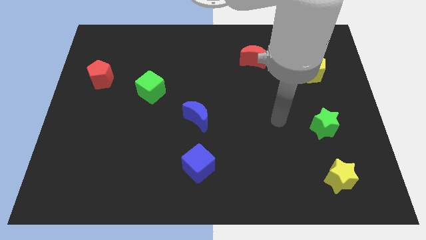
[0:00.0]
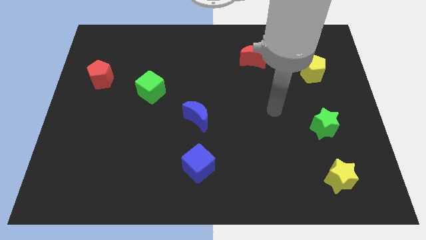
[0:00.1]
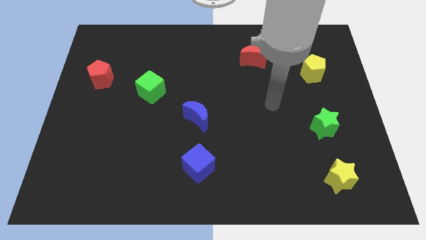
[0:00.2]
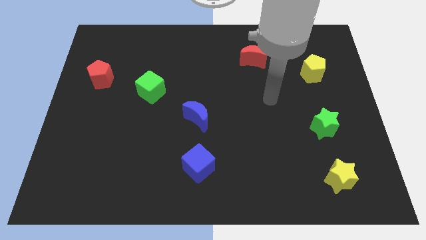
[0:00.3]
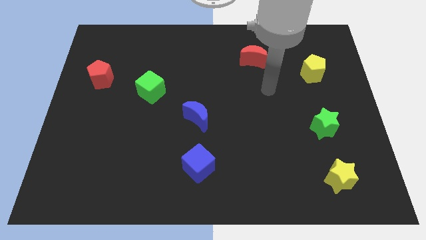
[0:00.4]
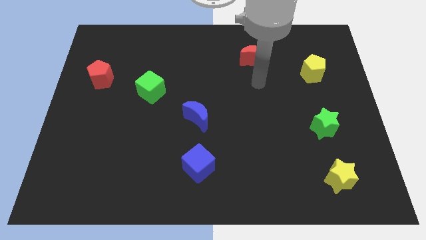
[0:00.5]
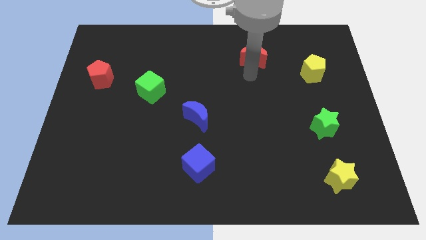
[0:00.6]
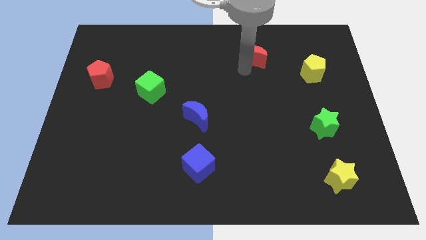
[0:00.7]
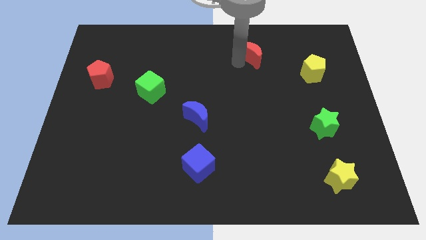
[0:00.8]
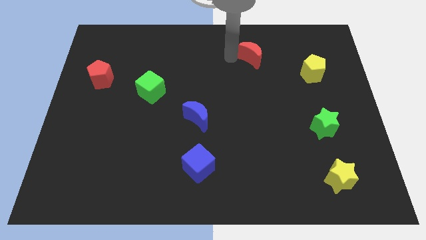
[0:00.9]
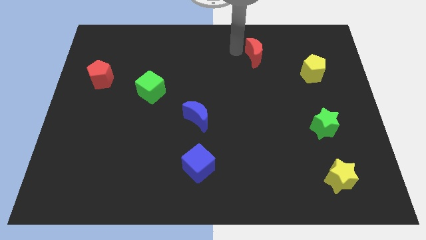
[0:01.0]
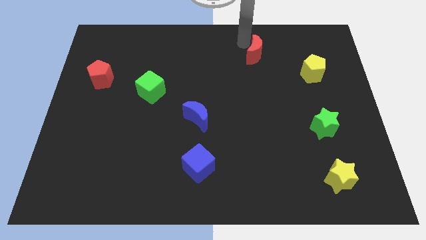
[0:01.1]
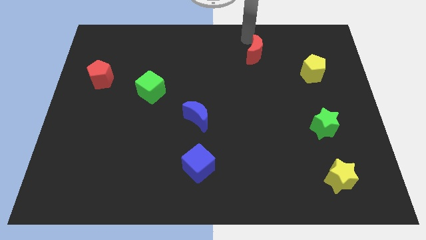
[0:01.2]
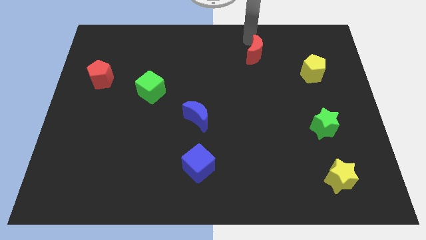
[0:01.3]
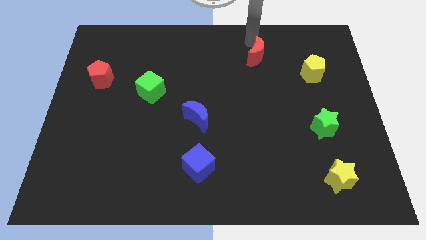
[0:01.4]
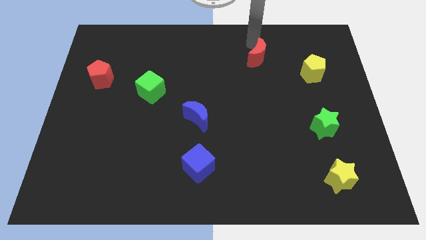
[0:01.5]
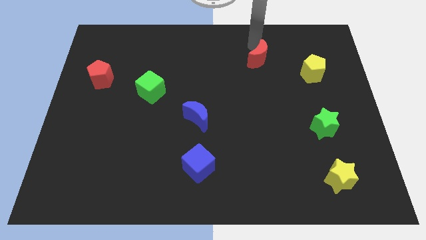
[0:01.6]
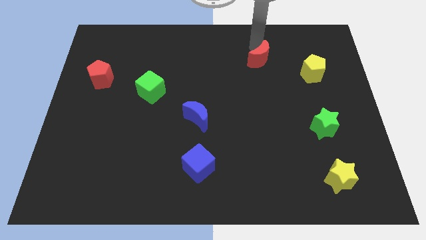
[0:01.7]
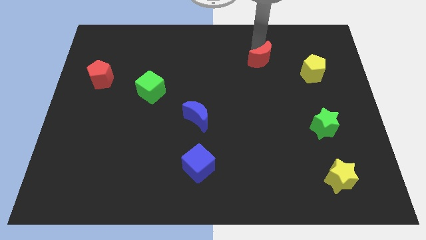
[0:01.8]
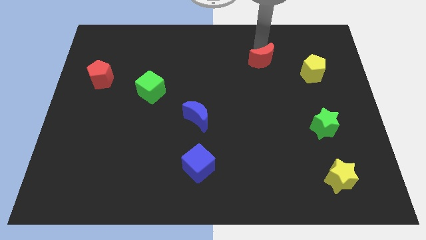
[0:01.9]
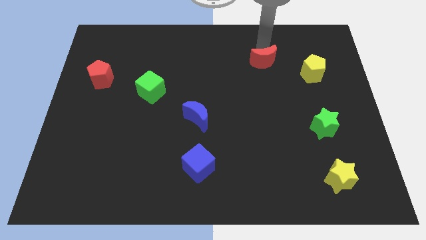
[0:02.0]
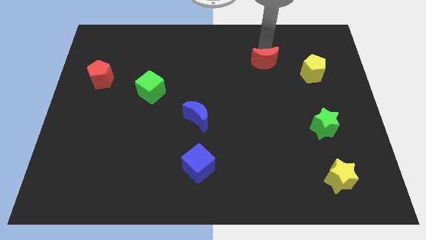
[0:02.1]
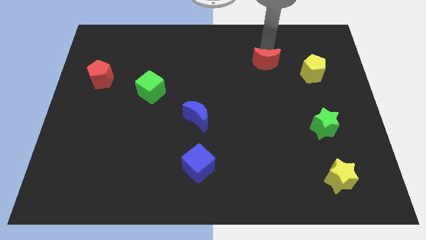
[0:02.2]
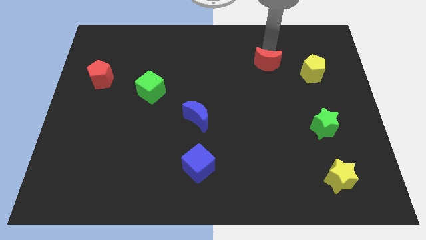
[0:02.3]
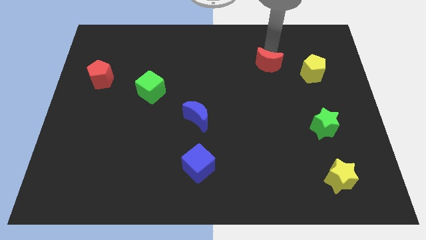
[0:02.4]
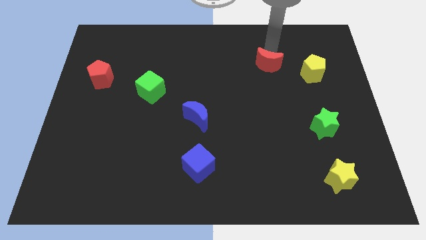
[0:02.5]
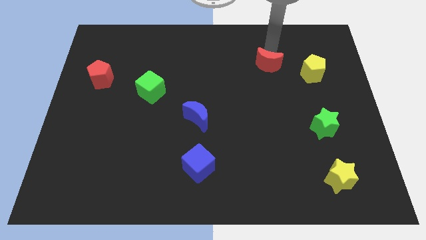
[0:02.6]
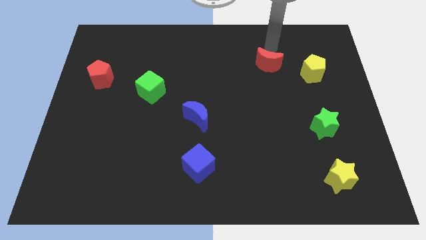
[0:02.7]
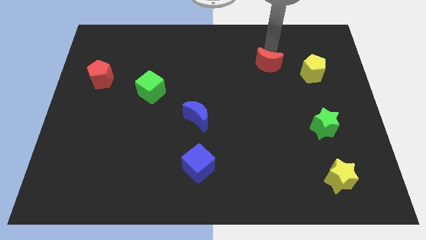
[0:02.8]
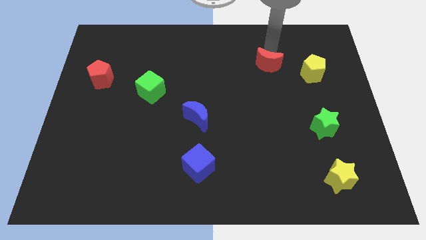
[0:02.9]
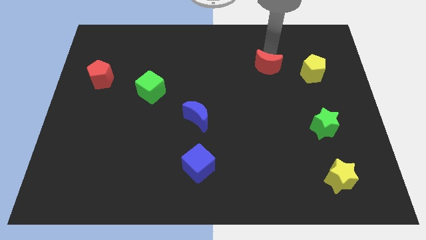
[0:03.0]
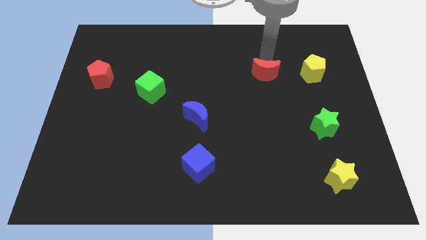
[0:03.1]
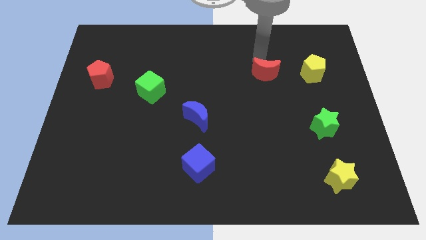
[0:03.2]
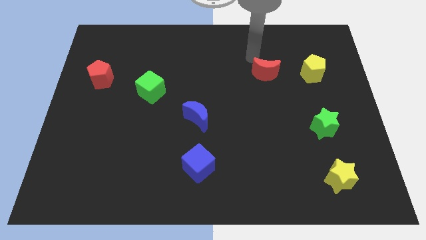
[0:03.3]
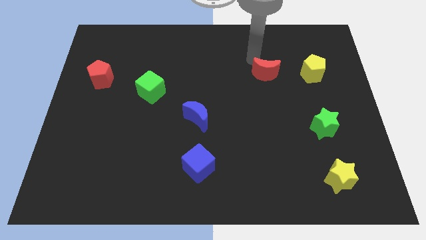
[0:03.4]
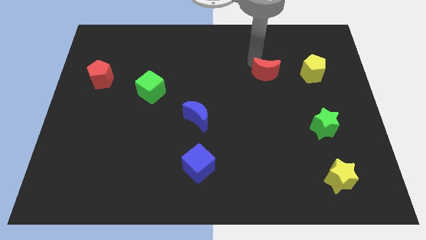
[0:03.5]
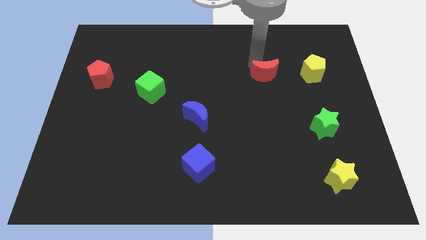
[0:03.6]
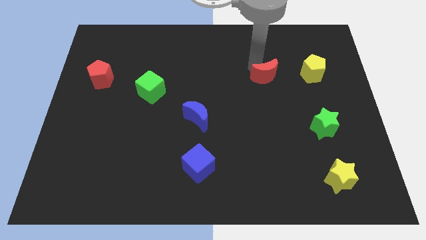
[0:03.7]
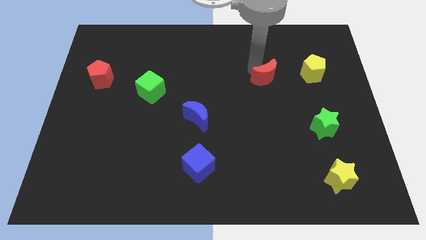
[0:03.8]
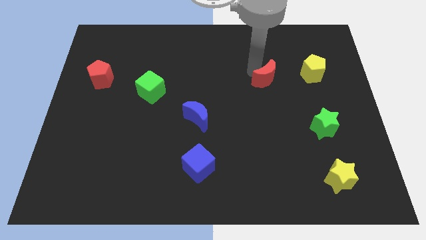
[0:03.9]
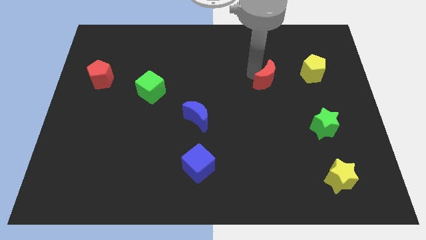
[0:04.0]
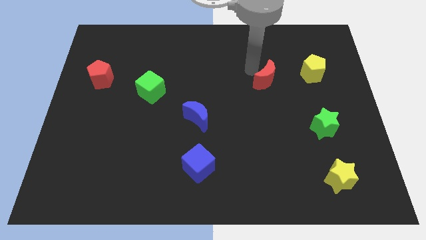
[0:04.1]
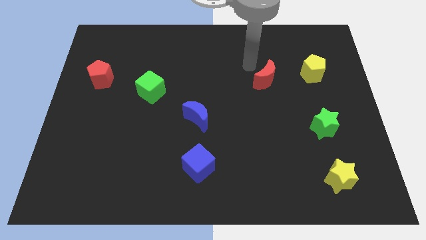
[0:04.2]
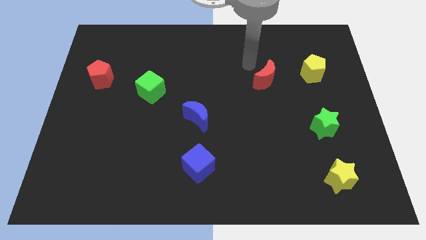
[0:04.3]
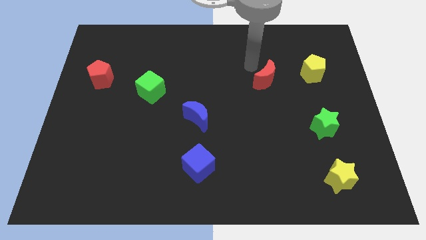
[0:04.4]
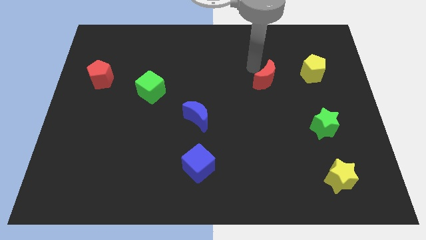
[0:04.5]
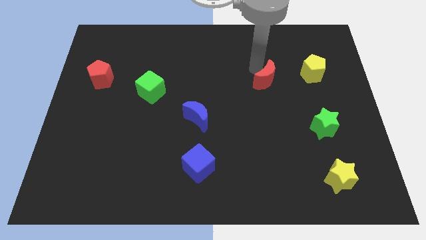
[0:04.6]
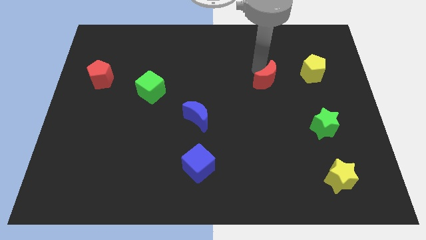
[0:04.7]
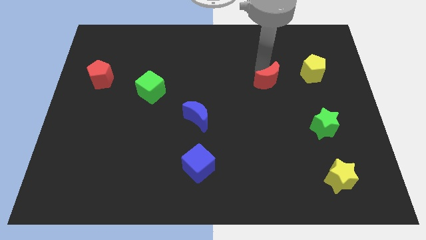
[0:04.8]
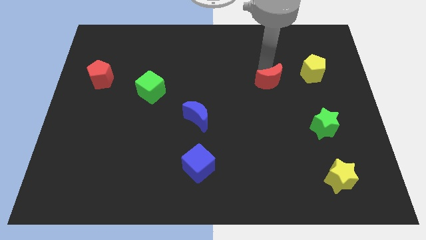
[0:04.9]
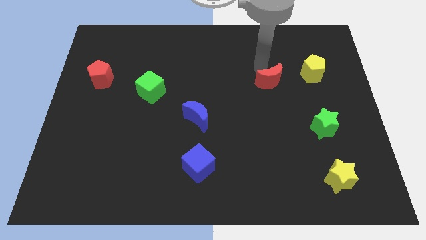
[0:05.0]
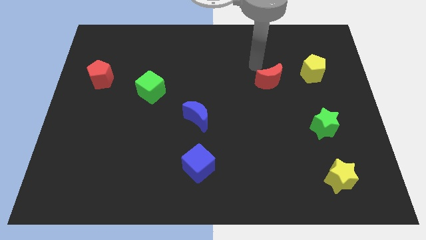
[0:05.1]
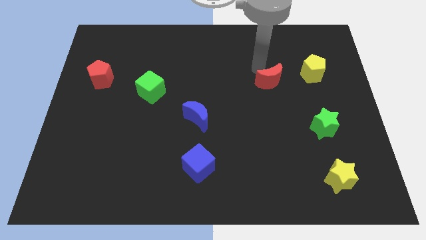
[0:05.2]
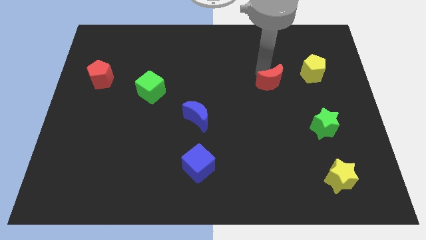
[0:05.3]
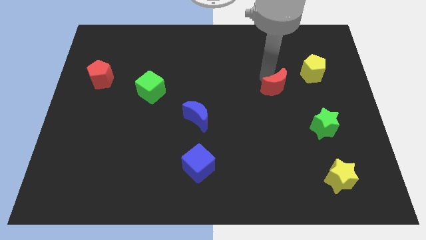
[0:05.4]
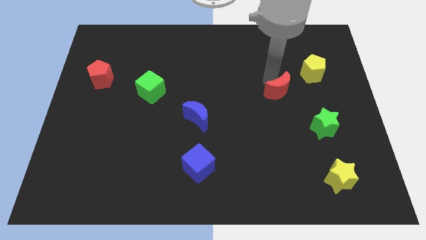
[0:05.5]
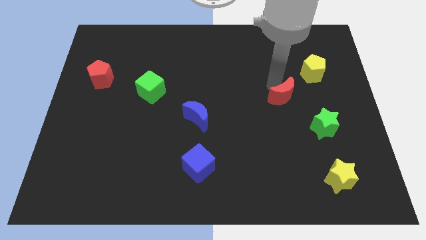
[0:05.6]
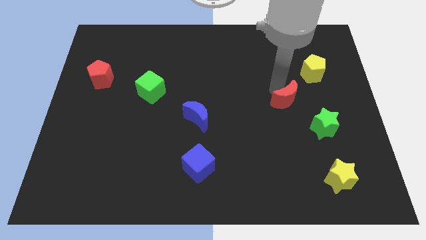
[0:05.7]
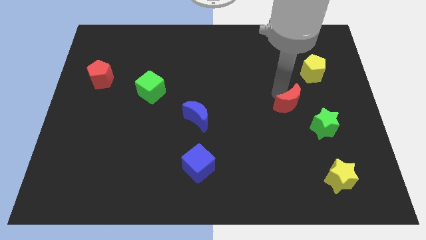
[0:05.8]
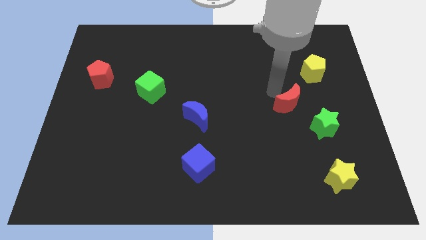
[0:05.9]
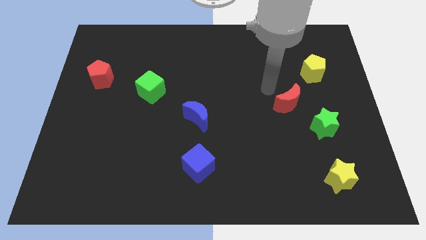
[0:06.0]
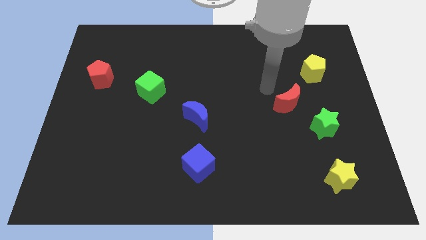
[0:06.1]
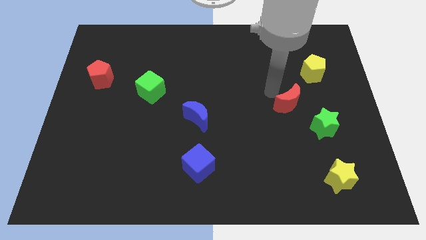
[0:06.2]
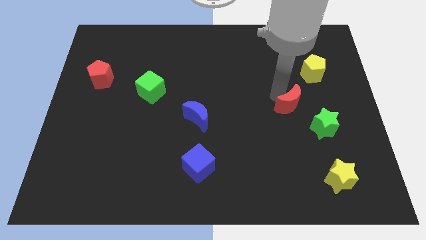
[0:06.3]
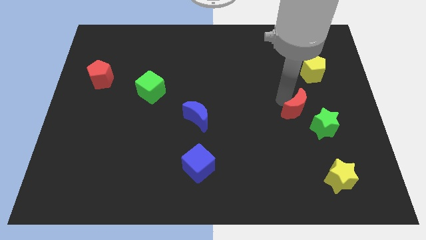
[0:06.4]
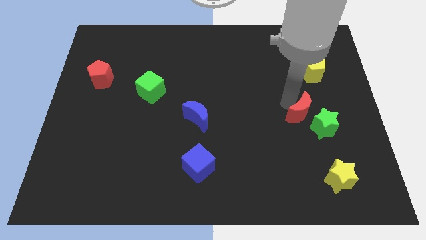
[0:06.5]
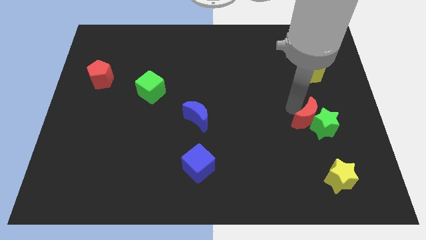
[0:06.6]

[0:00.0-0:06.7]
push the red moon to the green star

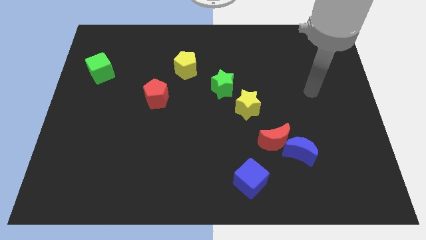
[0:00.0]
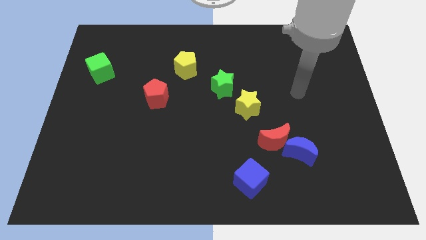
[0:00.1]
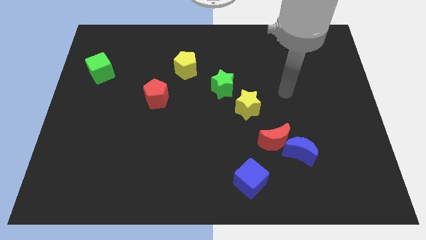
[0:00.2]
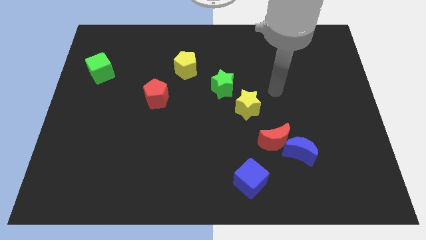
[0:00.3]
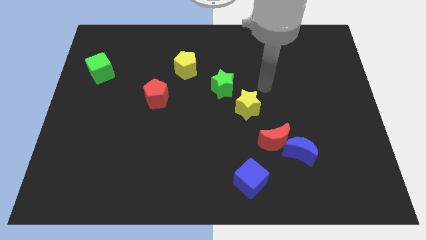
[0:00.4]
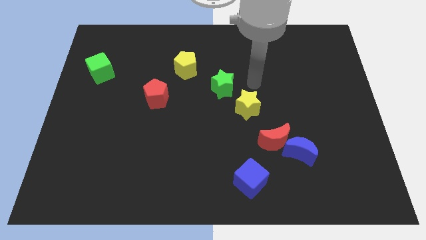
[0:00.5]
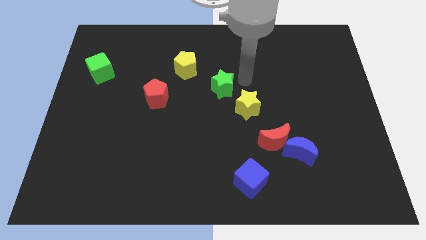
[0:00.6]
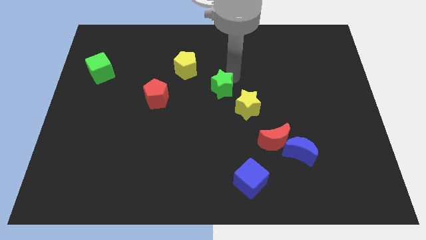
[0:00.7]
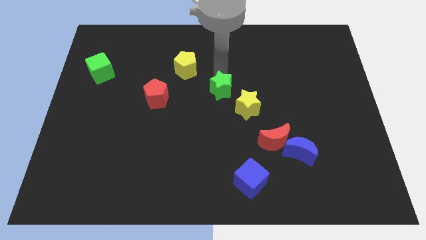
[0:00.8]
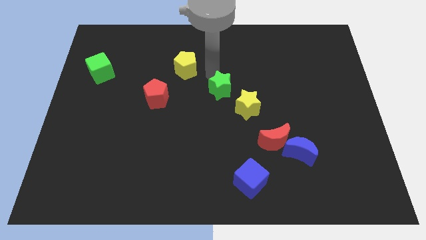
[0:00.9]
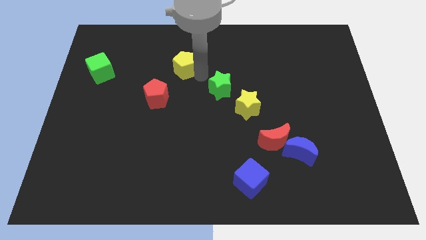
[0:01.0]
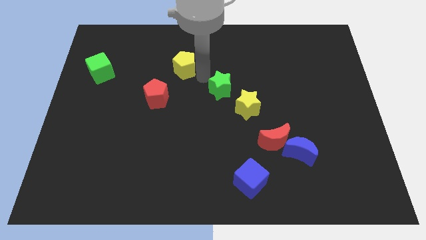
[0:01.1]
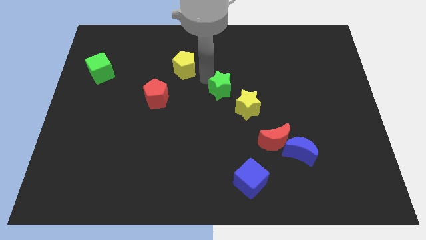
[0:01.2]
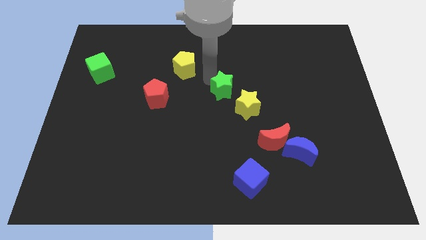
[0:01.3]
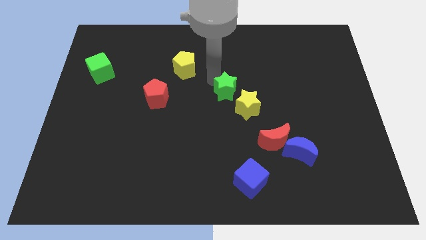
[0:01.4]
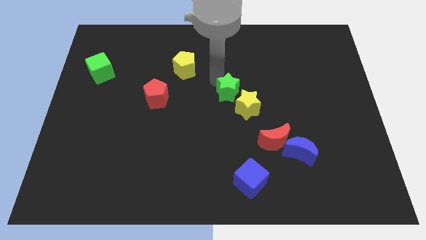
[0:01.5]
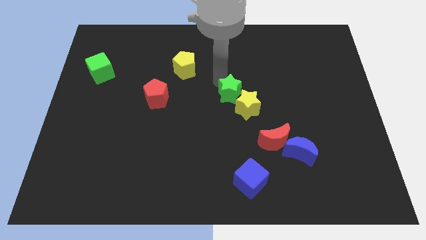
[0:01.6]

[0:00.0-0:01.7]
move the green star next to the yellow star
